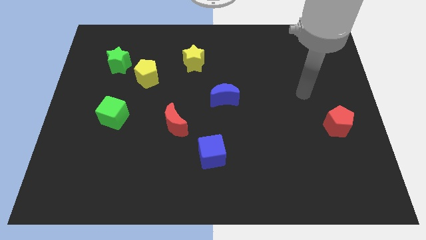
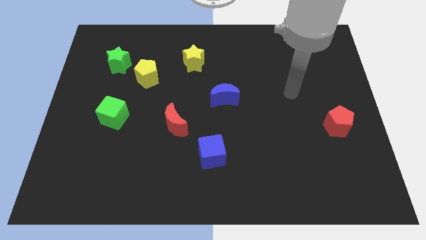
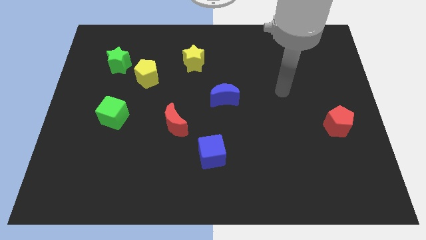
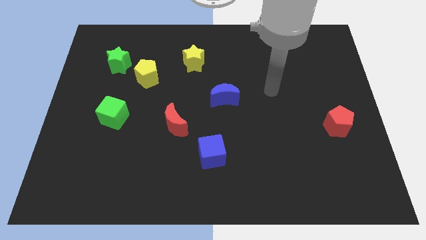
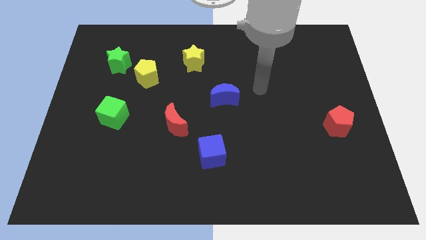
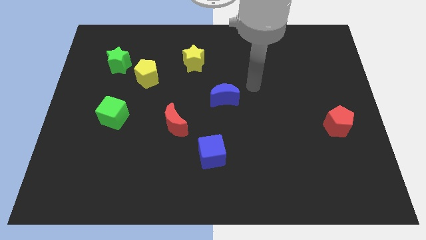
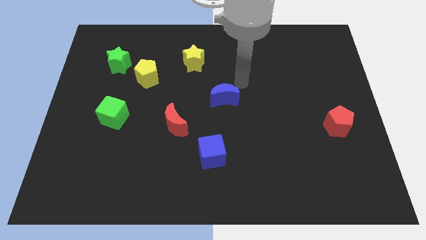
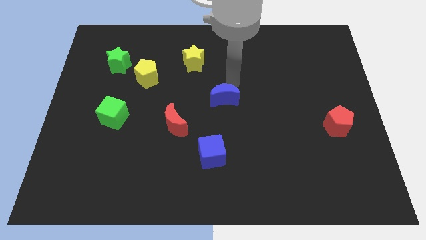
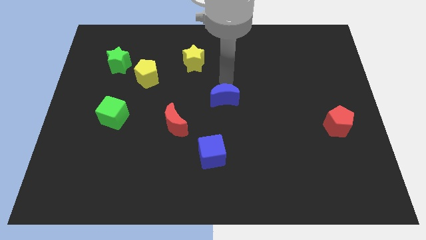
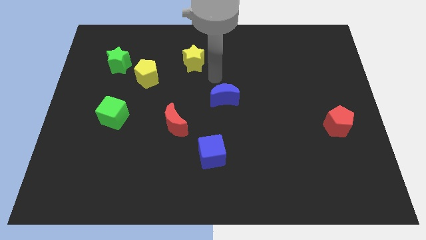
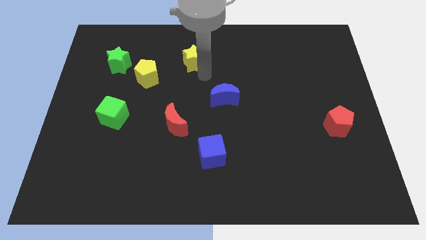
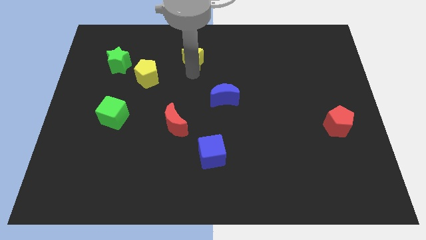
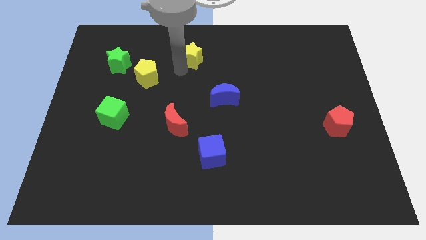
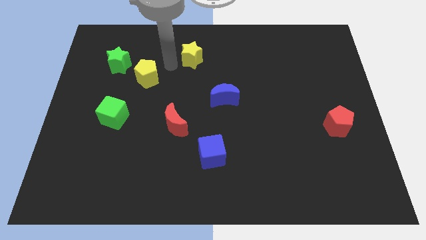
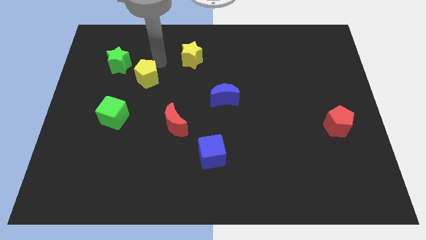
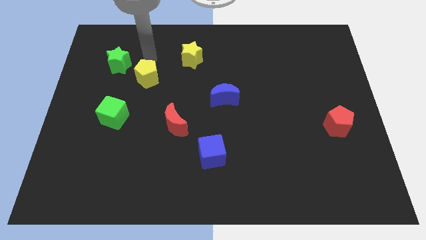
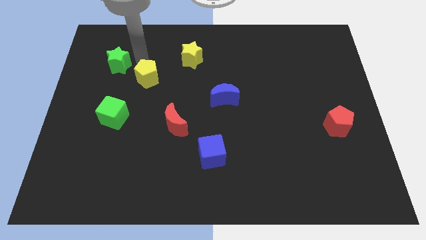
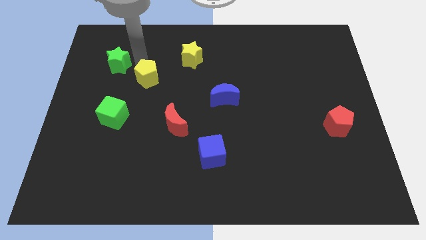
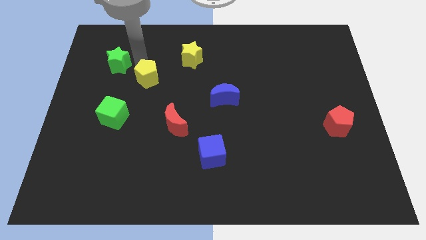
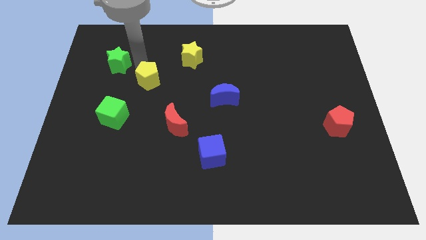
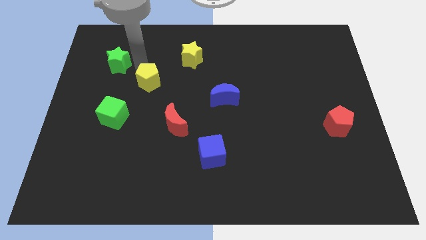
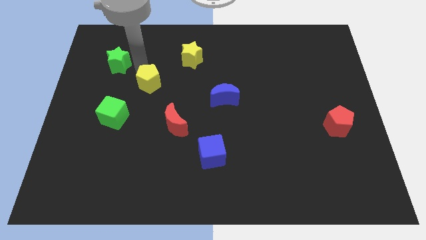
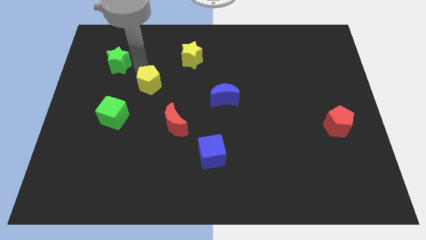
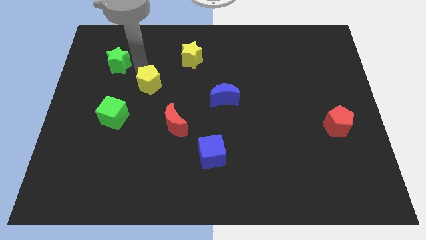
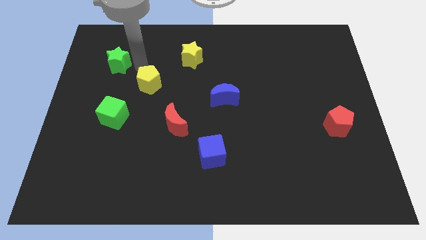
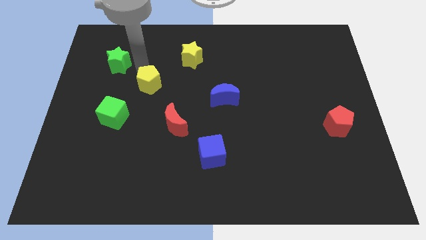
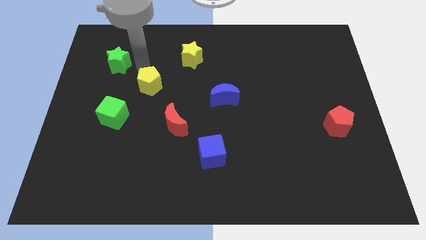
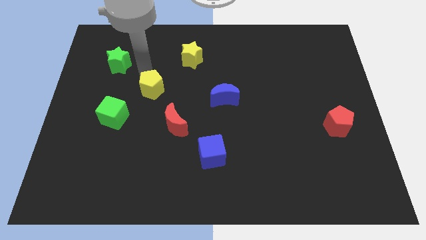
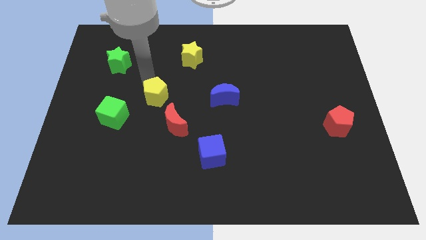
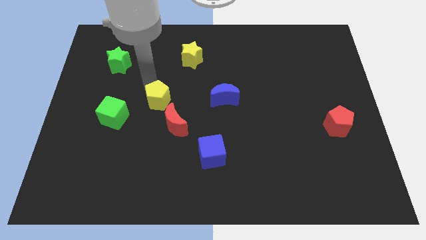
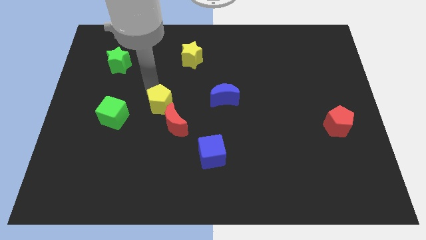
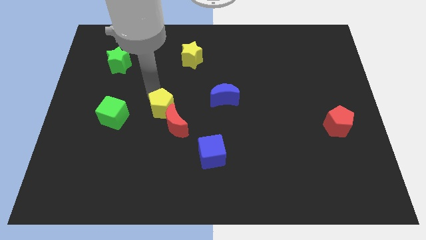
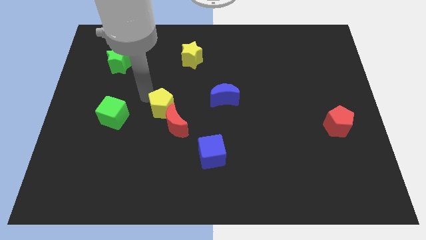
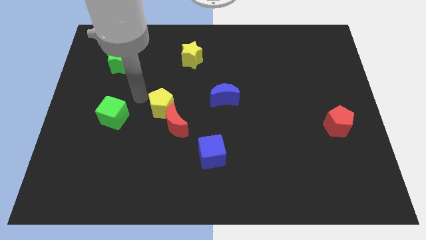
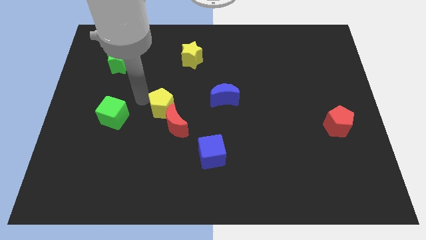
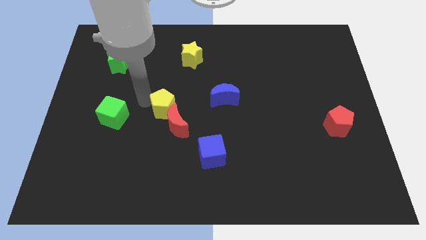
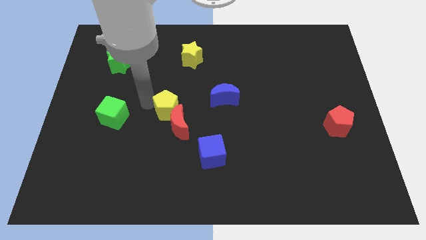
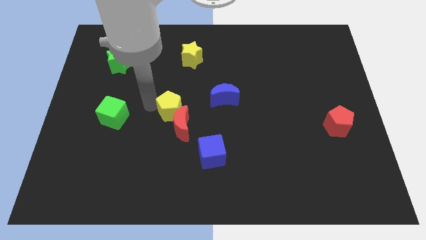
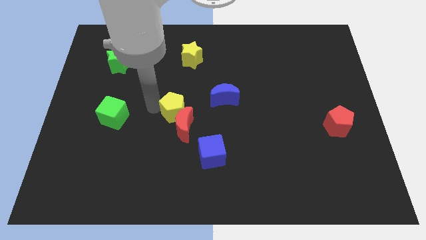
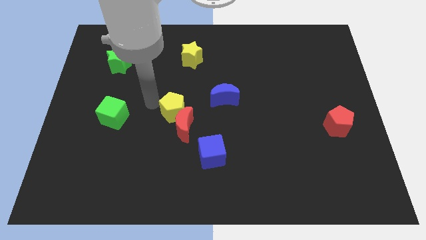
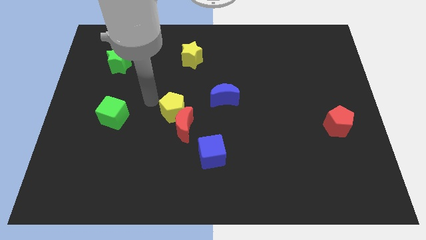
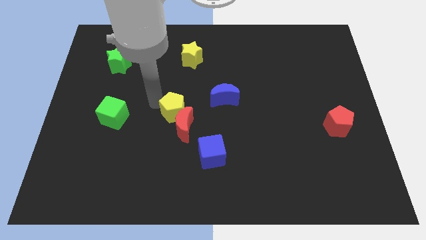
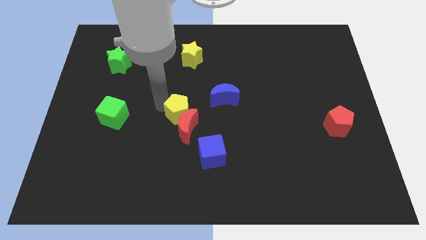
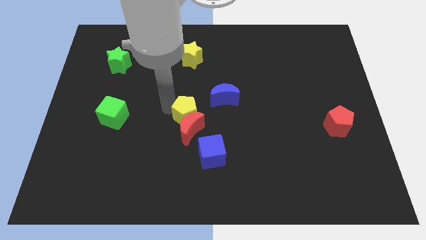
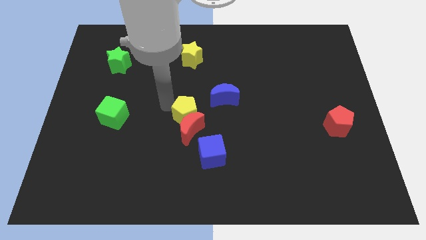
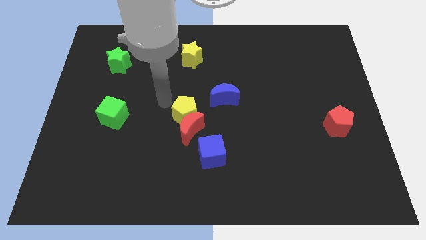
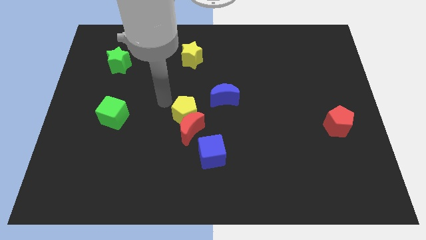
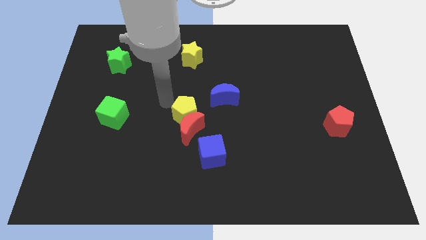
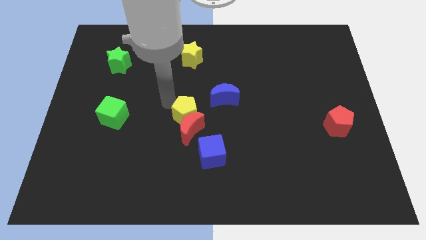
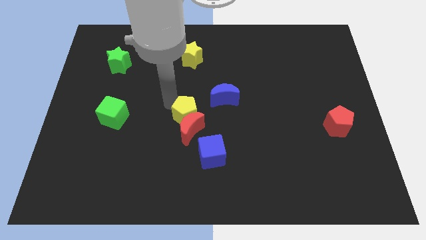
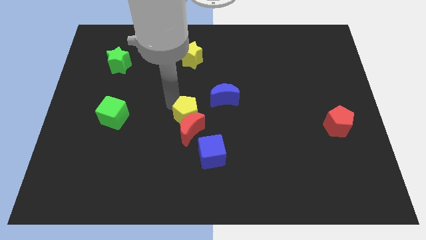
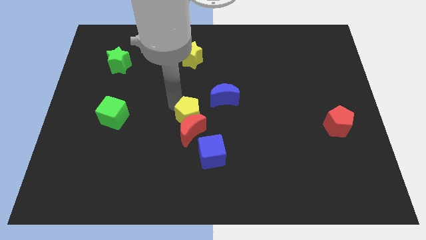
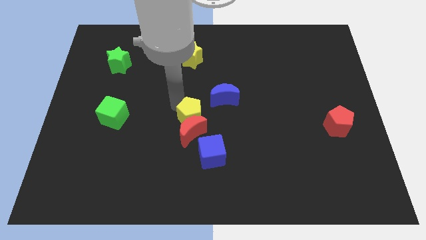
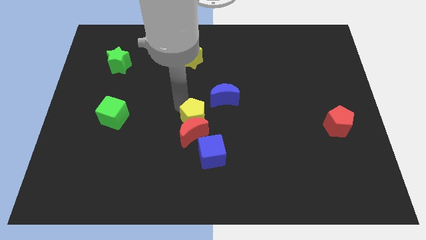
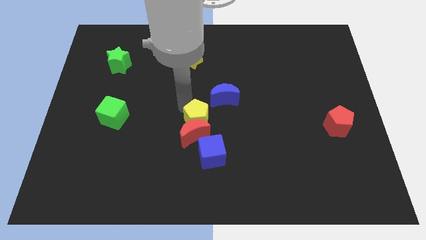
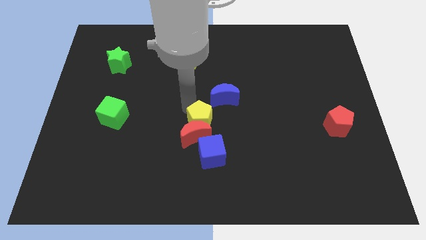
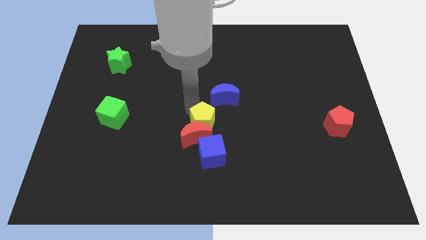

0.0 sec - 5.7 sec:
put the yellow pentagon to the bottom of the blue moon

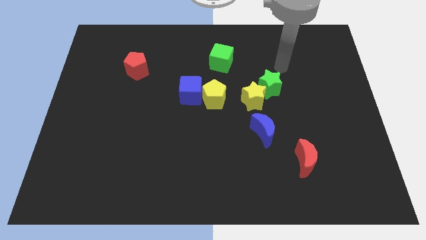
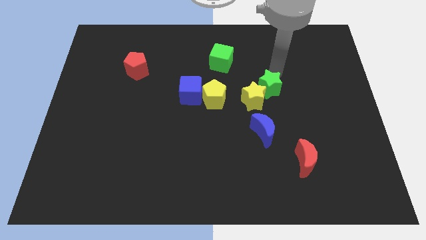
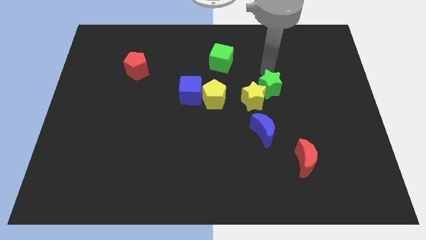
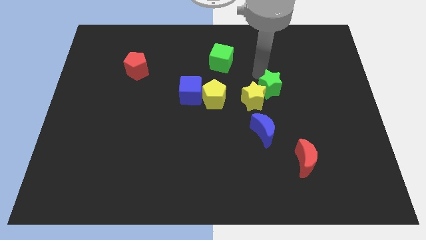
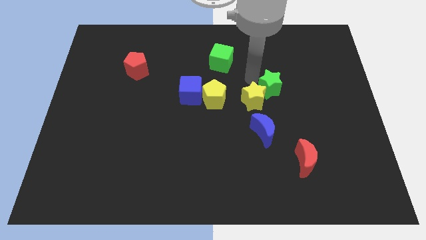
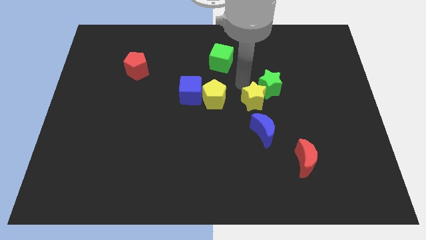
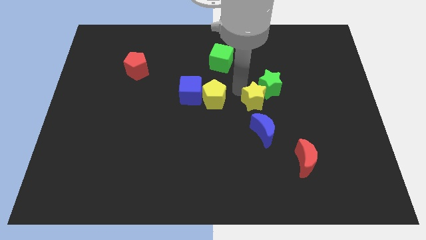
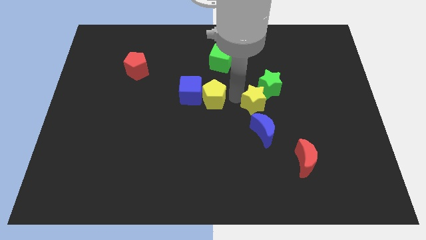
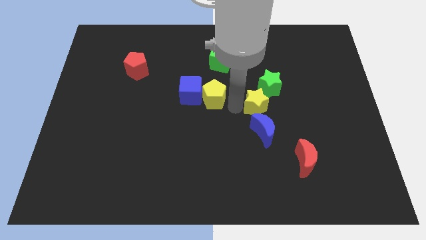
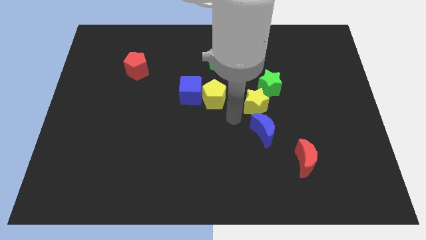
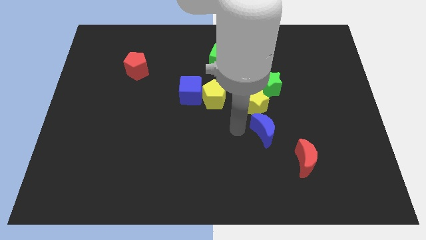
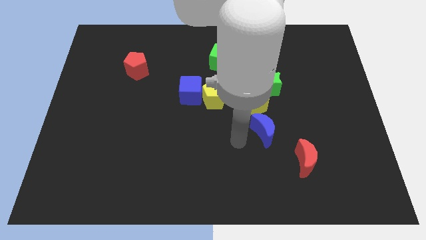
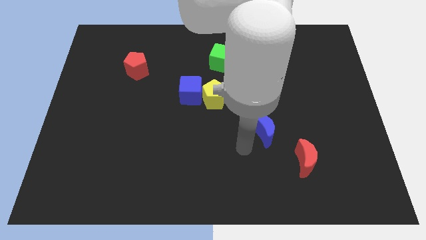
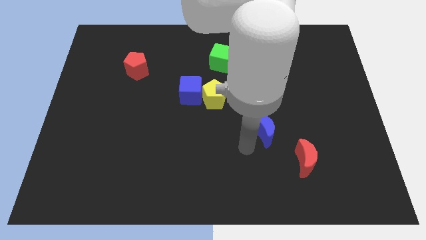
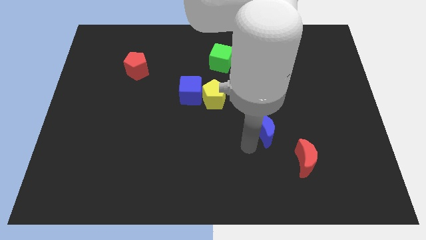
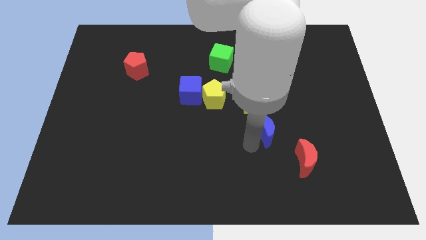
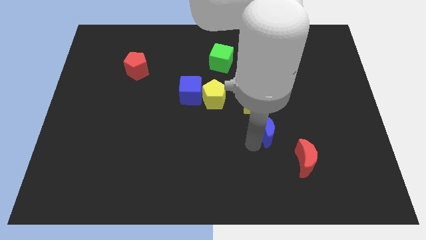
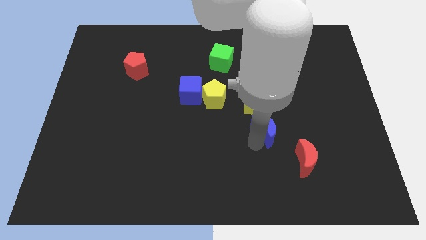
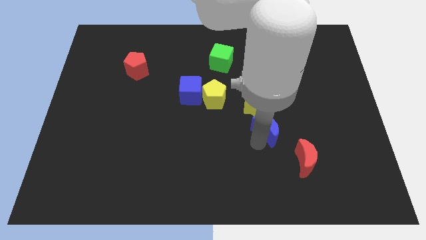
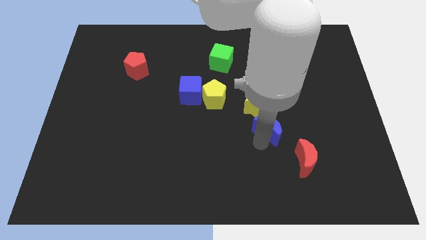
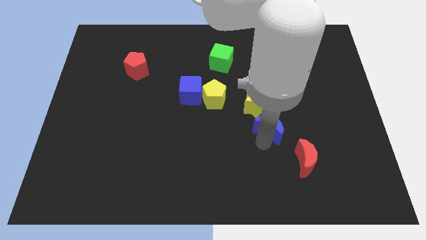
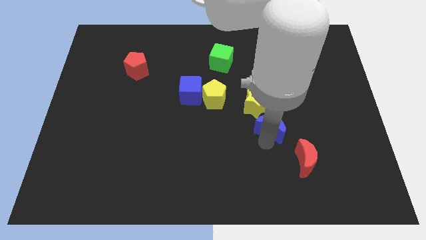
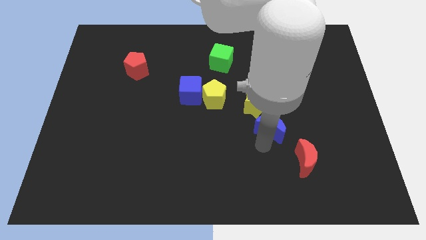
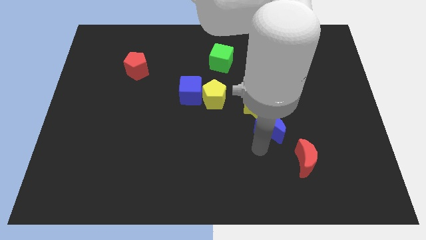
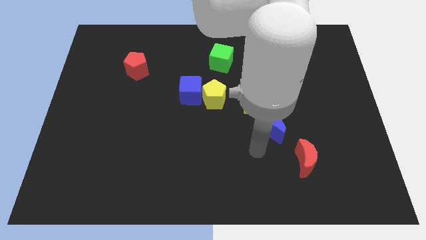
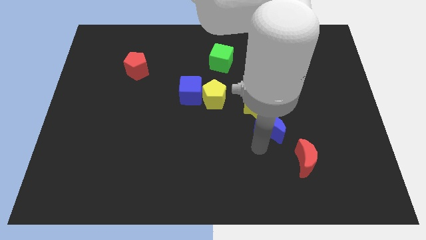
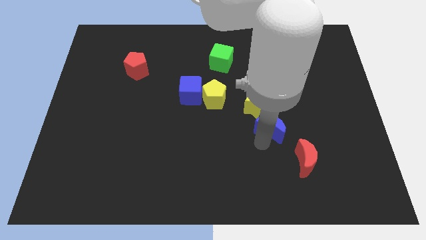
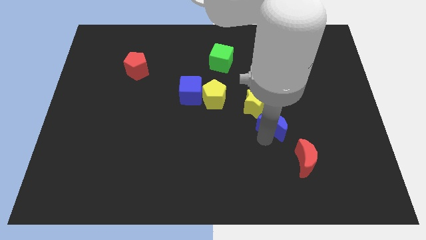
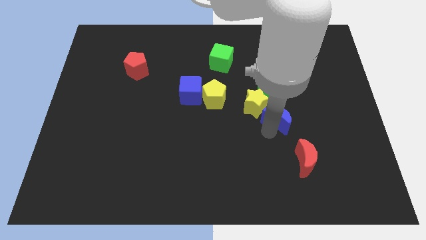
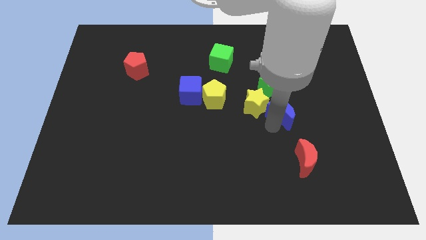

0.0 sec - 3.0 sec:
push the blue moon to the bottom right side of the green star
